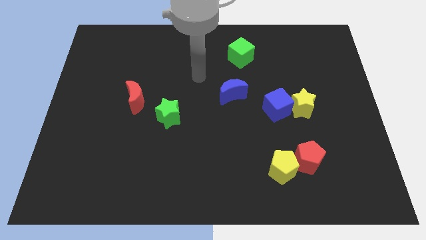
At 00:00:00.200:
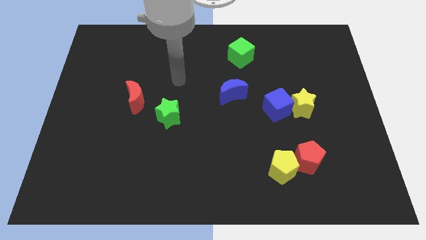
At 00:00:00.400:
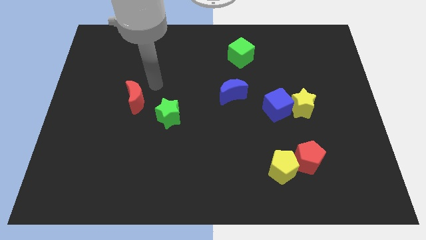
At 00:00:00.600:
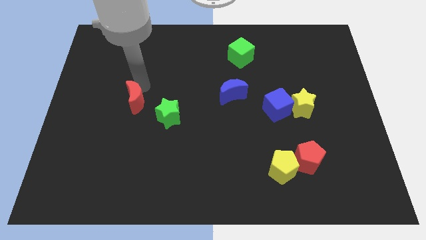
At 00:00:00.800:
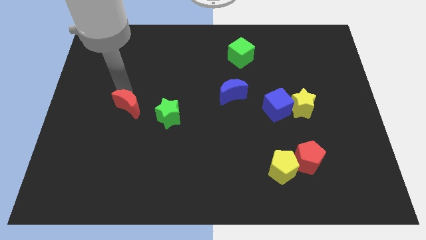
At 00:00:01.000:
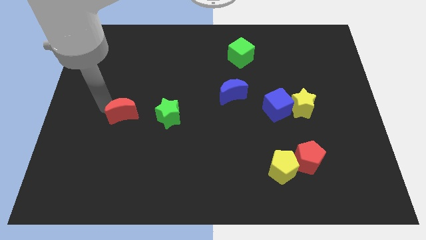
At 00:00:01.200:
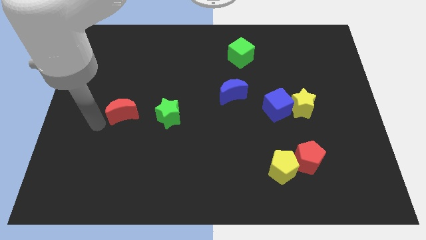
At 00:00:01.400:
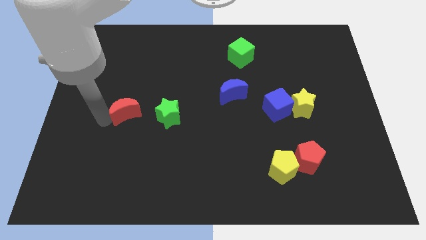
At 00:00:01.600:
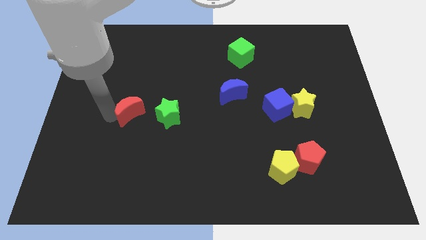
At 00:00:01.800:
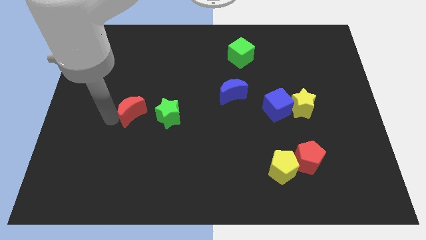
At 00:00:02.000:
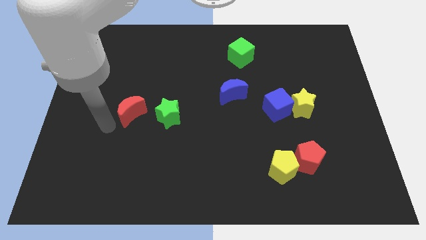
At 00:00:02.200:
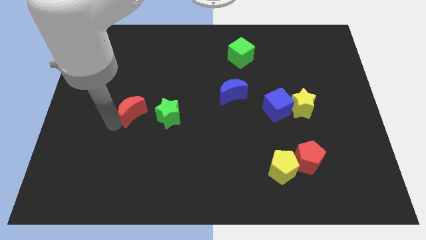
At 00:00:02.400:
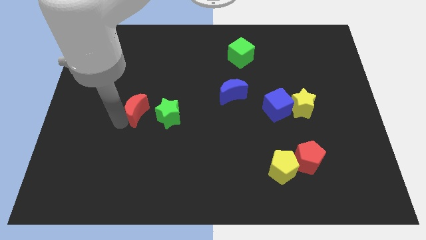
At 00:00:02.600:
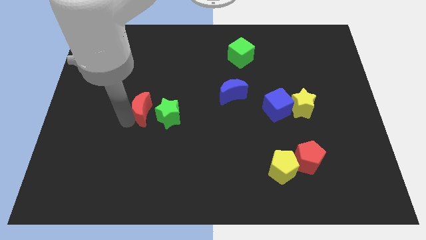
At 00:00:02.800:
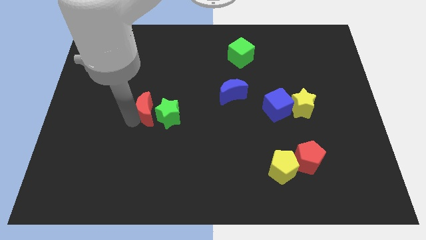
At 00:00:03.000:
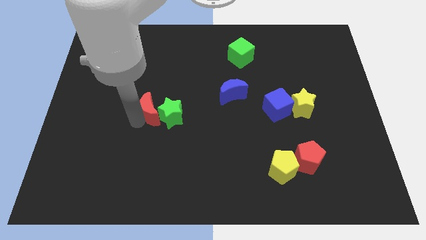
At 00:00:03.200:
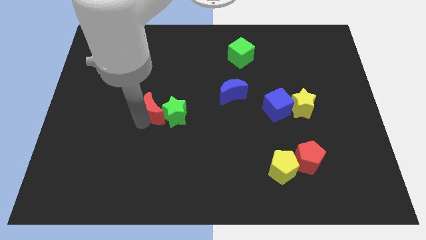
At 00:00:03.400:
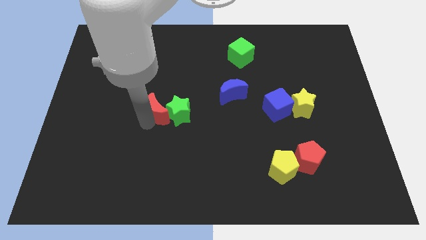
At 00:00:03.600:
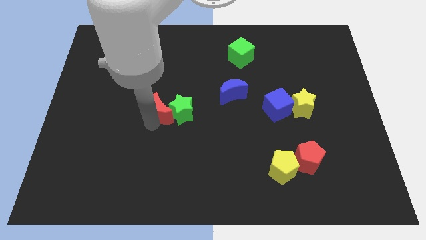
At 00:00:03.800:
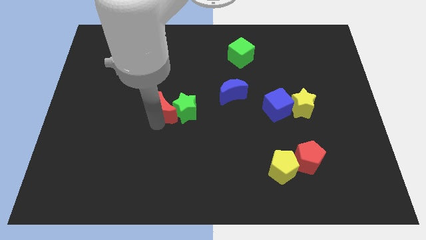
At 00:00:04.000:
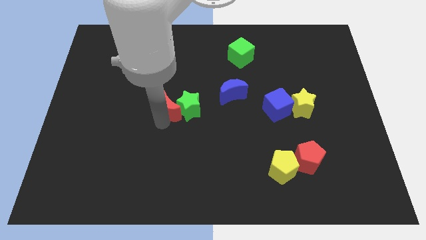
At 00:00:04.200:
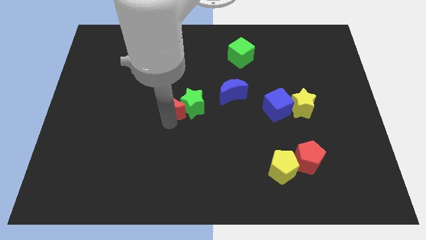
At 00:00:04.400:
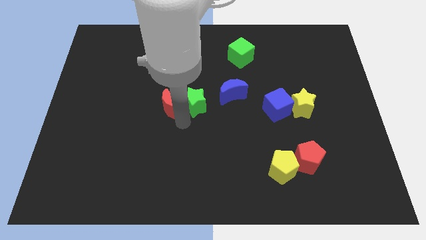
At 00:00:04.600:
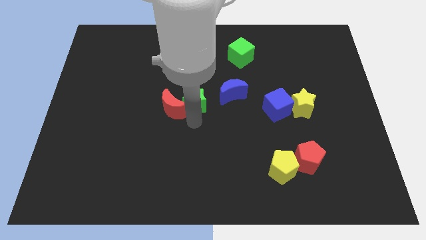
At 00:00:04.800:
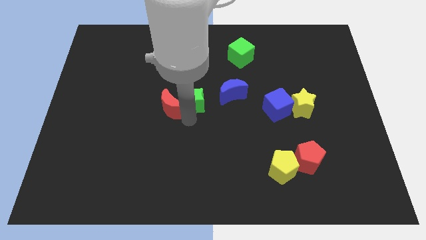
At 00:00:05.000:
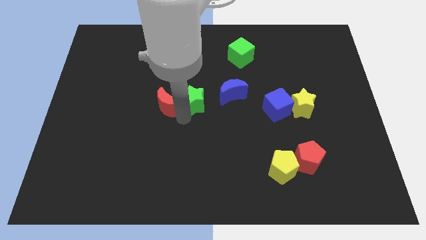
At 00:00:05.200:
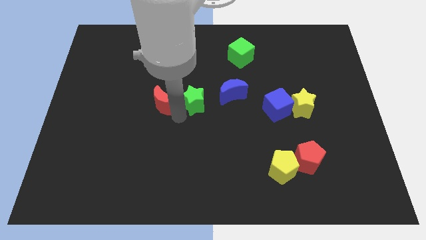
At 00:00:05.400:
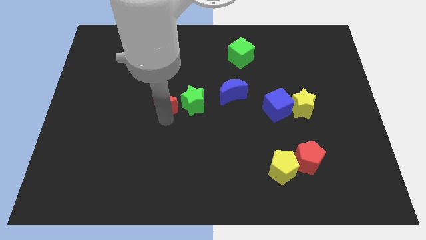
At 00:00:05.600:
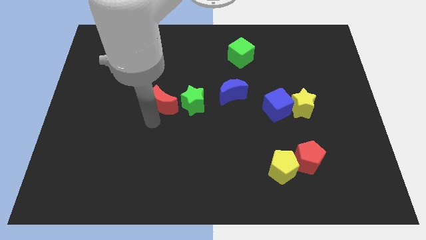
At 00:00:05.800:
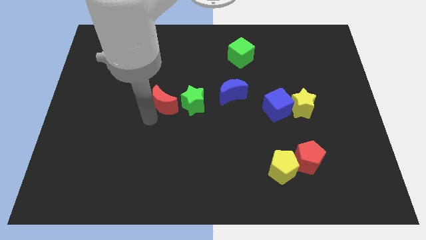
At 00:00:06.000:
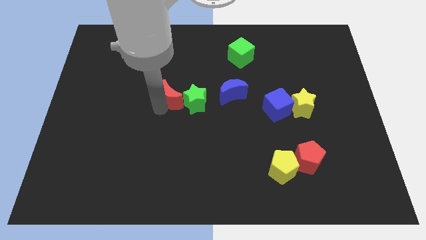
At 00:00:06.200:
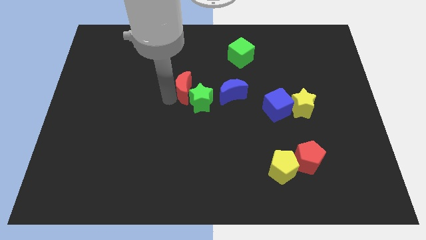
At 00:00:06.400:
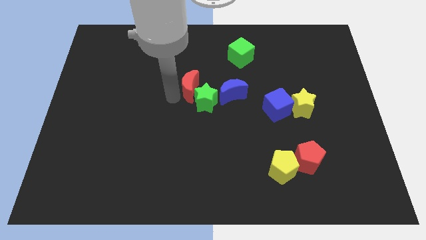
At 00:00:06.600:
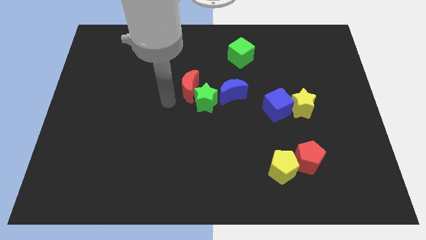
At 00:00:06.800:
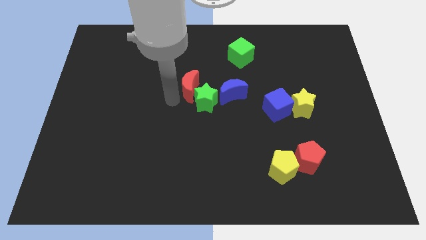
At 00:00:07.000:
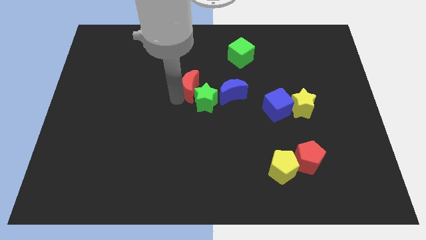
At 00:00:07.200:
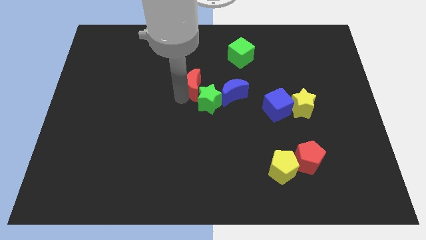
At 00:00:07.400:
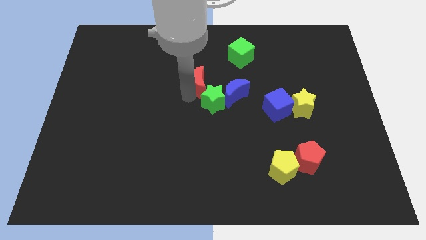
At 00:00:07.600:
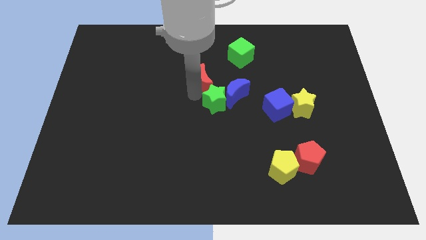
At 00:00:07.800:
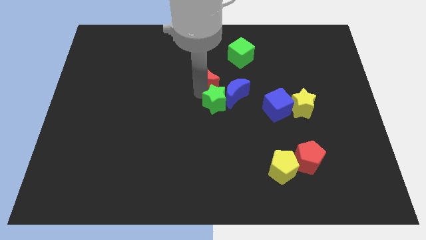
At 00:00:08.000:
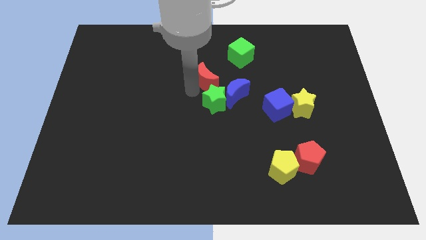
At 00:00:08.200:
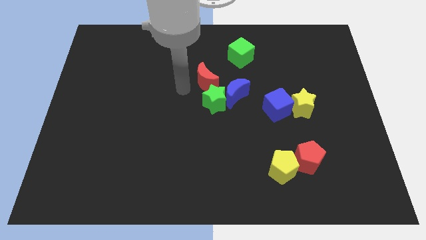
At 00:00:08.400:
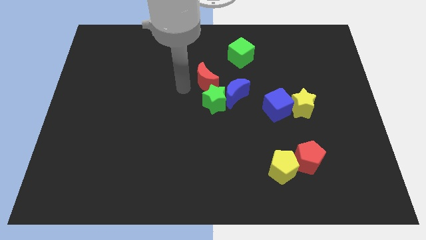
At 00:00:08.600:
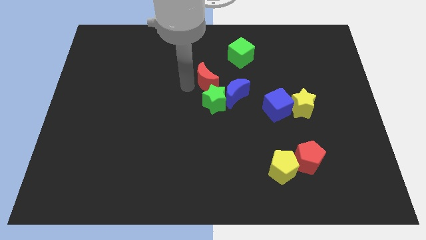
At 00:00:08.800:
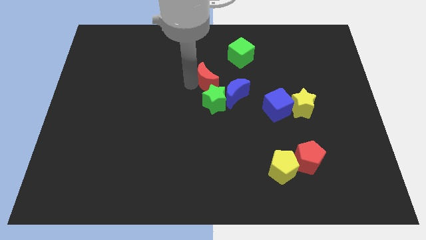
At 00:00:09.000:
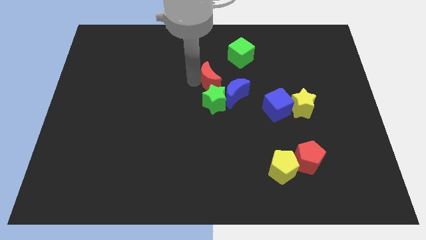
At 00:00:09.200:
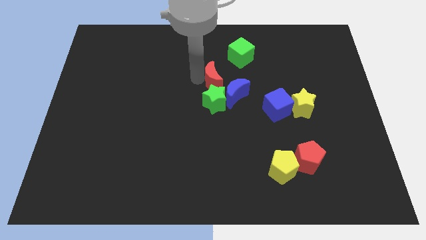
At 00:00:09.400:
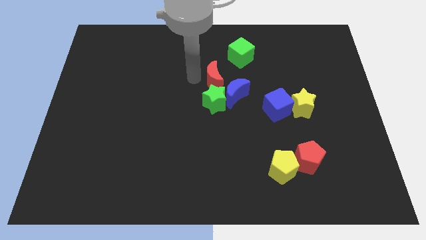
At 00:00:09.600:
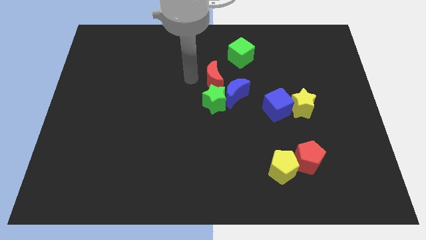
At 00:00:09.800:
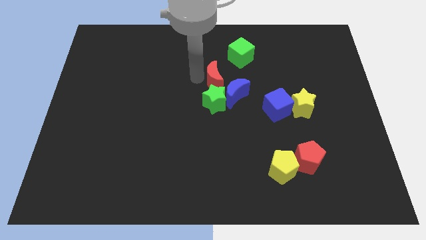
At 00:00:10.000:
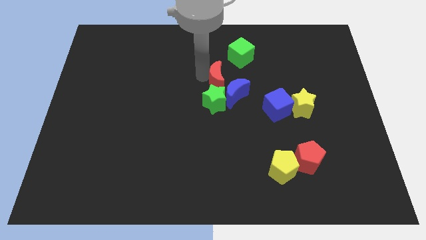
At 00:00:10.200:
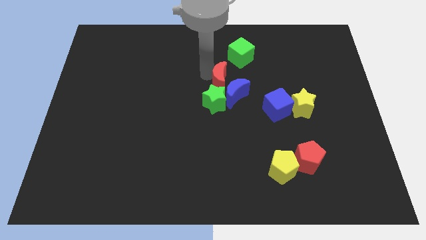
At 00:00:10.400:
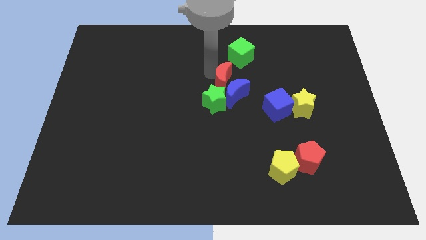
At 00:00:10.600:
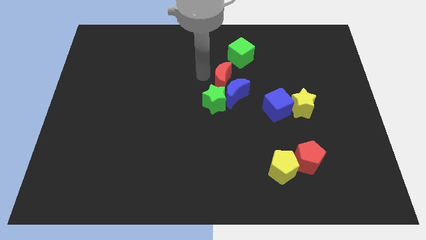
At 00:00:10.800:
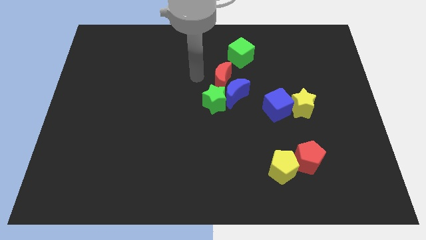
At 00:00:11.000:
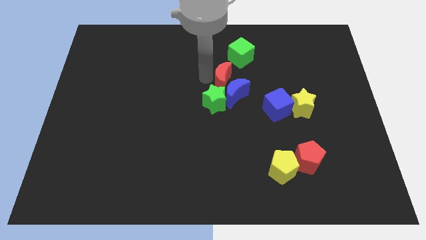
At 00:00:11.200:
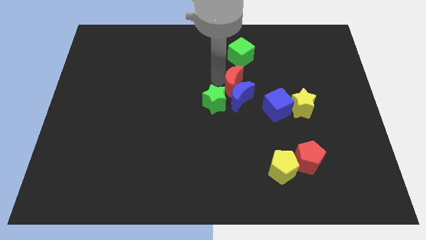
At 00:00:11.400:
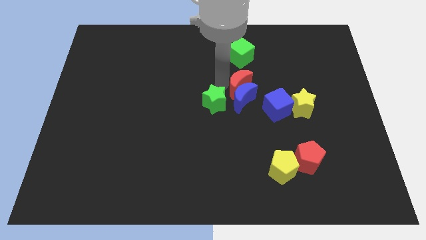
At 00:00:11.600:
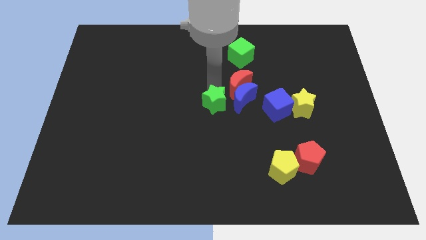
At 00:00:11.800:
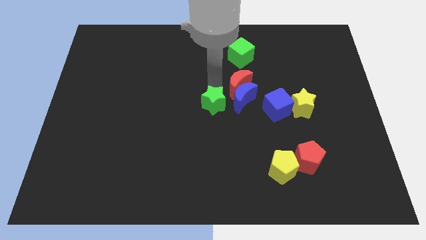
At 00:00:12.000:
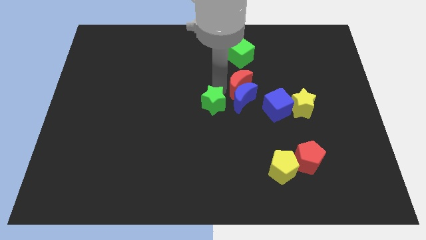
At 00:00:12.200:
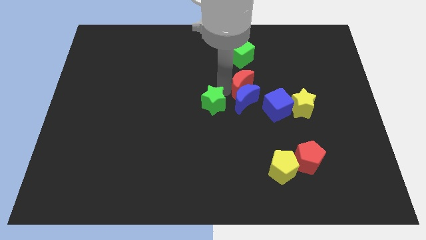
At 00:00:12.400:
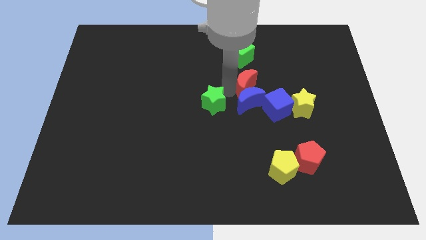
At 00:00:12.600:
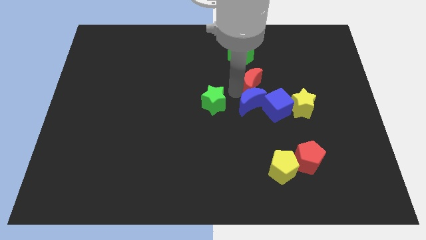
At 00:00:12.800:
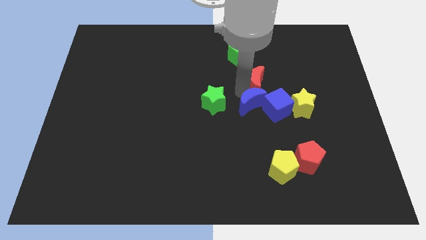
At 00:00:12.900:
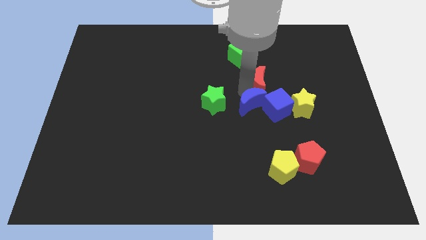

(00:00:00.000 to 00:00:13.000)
slide the red moon diagonally up and to the left of the yellow star

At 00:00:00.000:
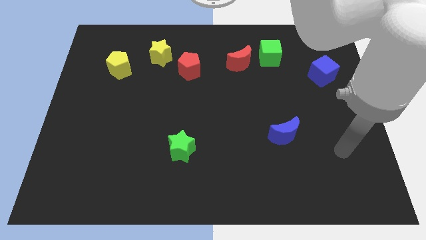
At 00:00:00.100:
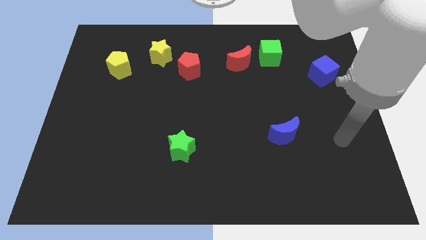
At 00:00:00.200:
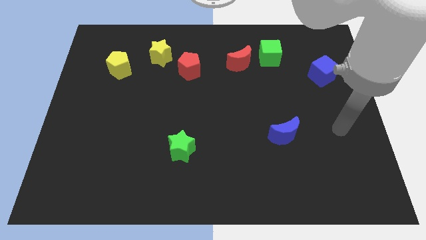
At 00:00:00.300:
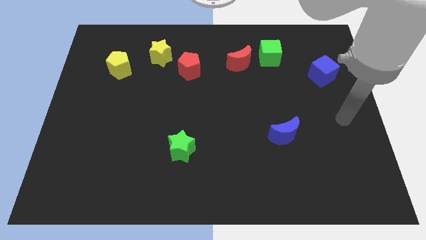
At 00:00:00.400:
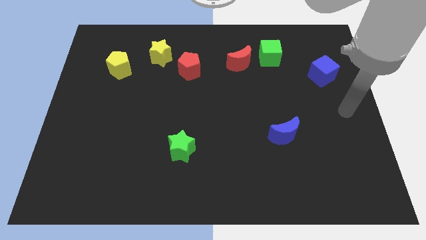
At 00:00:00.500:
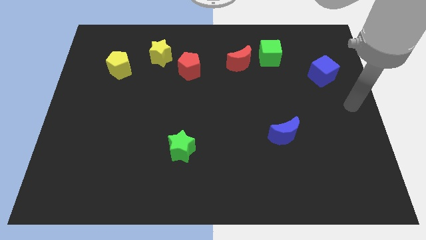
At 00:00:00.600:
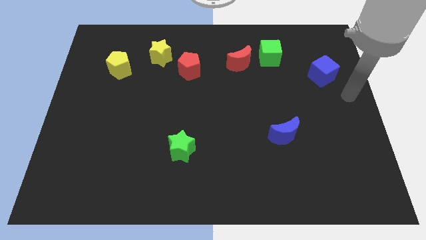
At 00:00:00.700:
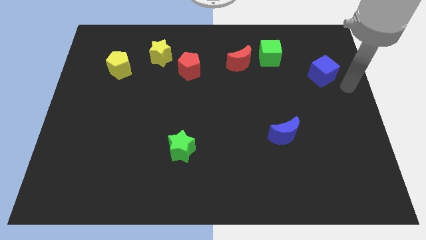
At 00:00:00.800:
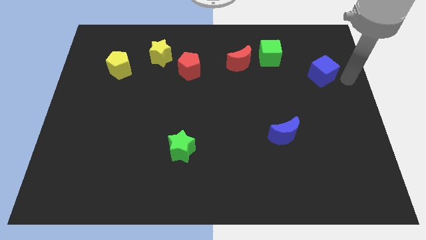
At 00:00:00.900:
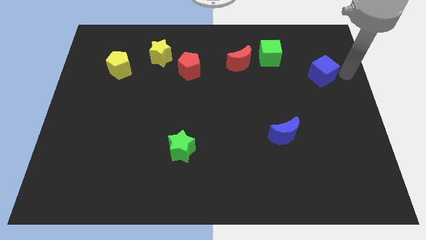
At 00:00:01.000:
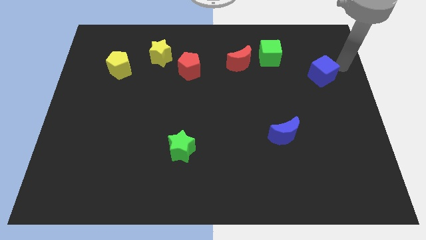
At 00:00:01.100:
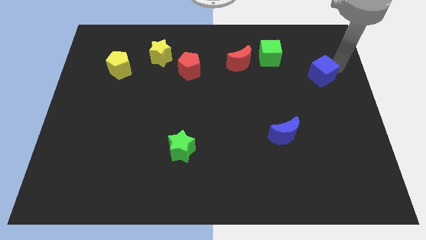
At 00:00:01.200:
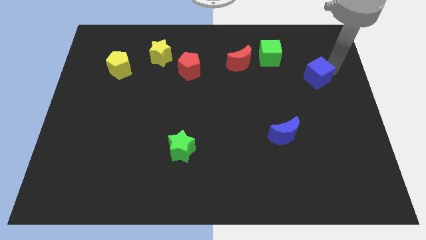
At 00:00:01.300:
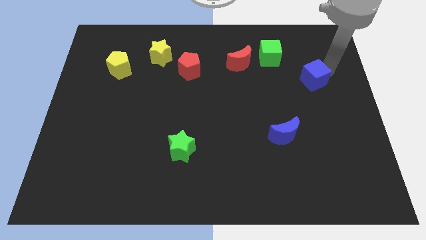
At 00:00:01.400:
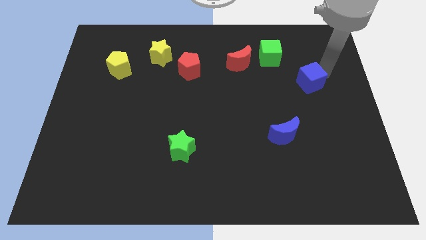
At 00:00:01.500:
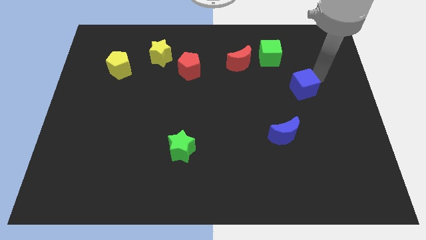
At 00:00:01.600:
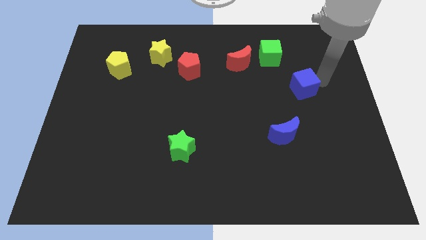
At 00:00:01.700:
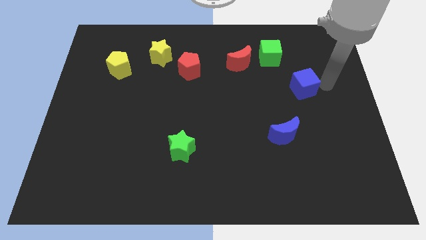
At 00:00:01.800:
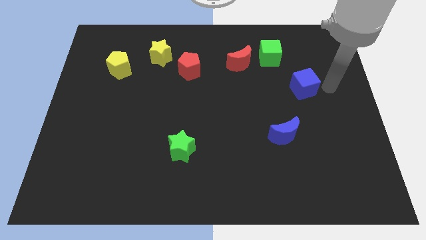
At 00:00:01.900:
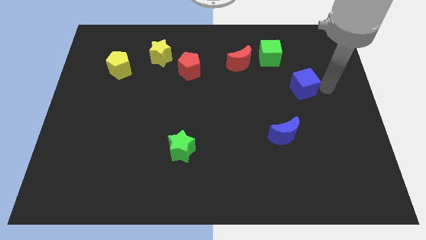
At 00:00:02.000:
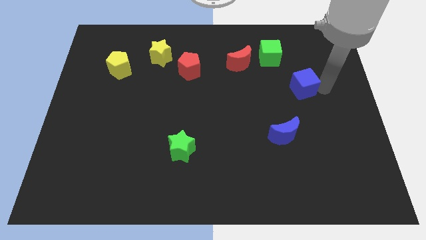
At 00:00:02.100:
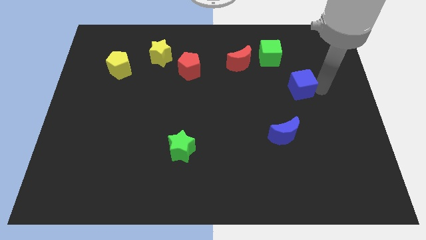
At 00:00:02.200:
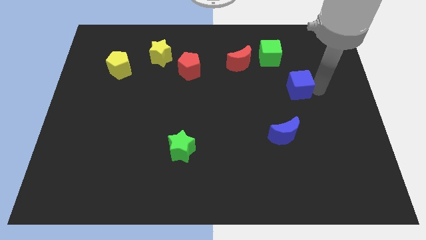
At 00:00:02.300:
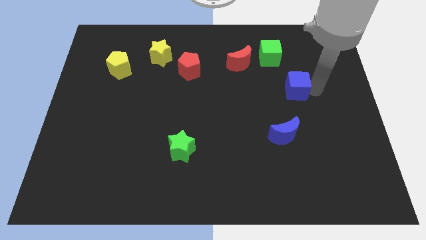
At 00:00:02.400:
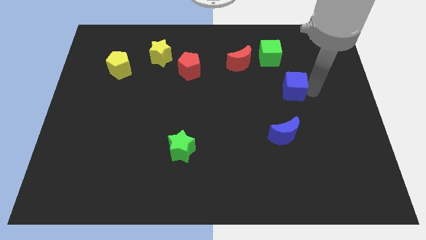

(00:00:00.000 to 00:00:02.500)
push the blue cube to the bottom of the green cube
